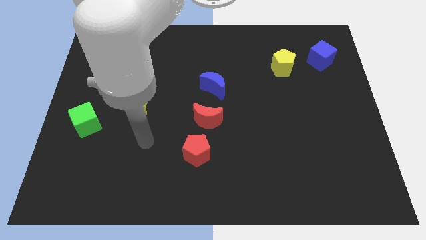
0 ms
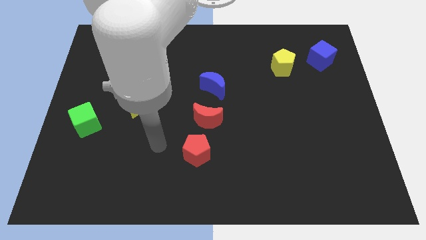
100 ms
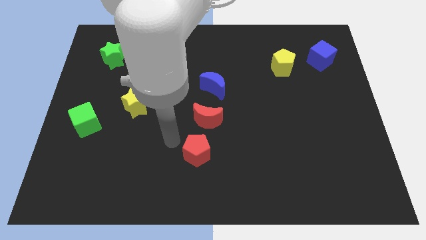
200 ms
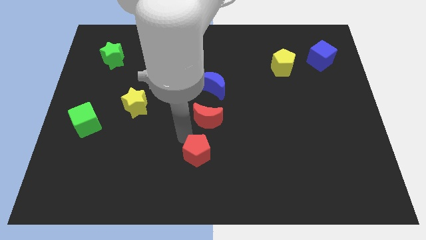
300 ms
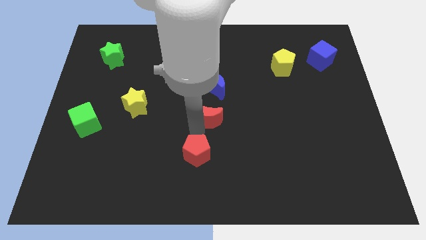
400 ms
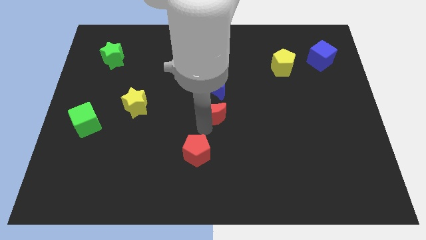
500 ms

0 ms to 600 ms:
move the red pentagon away from the red moon

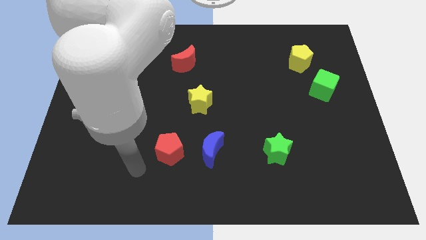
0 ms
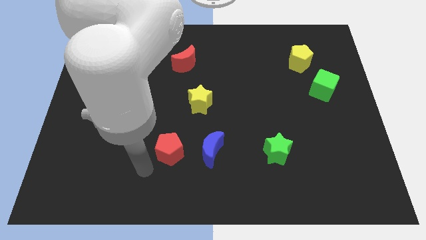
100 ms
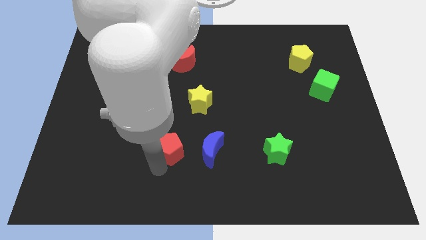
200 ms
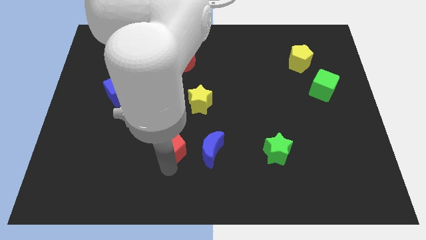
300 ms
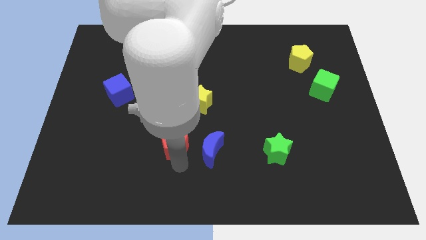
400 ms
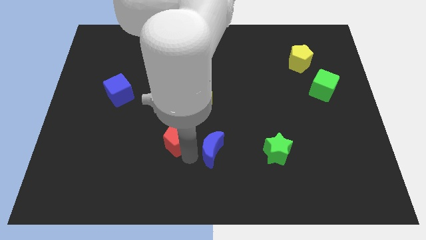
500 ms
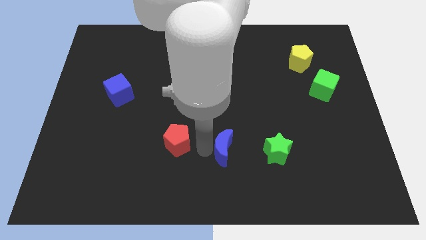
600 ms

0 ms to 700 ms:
separate the red pentagon from the blue moon

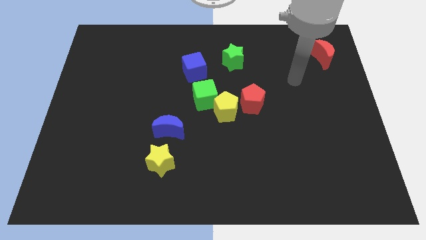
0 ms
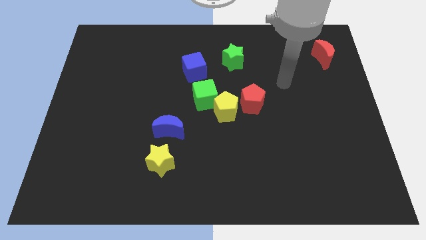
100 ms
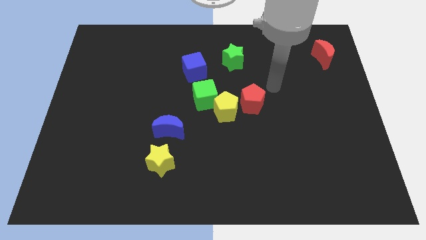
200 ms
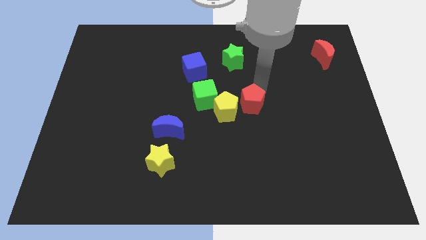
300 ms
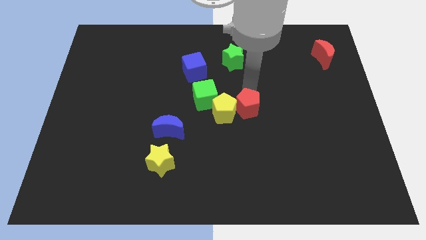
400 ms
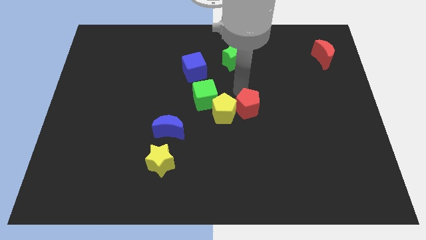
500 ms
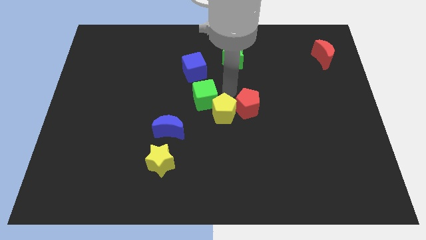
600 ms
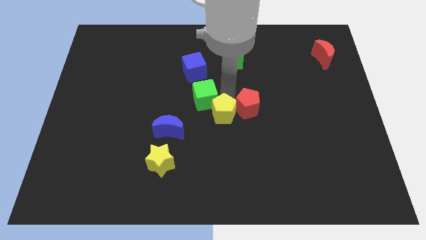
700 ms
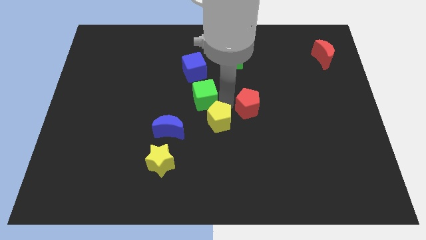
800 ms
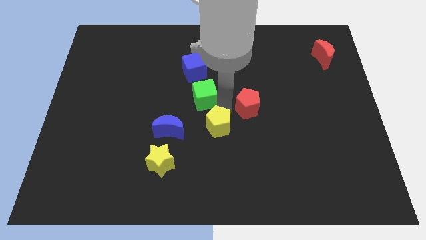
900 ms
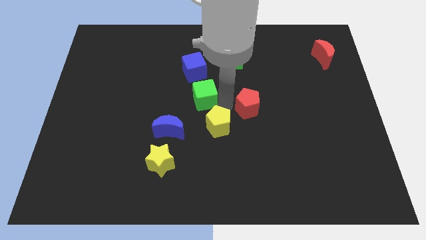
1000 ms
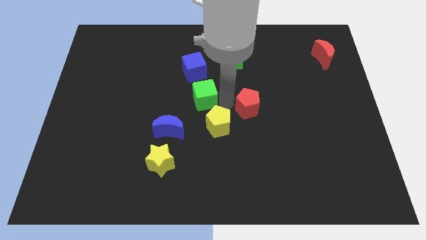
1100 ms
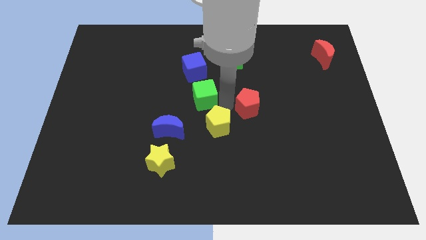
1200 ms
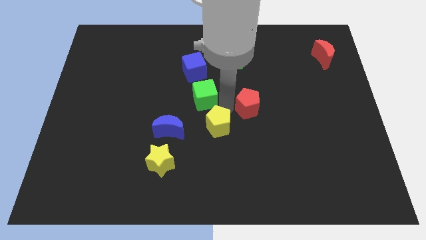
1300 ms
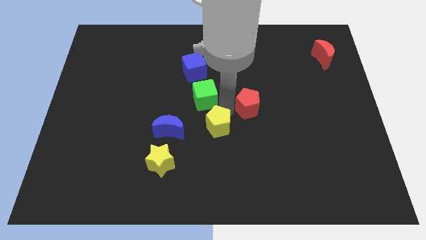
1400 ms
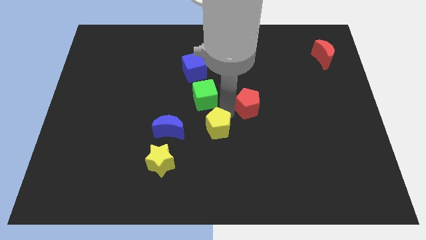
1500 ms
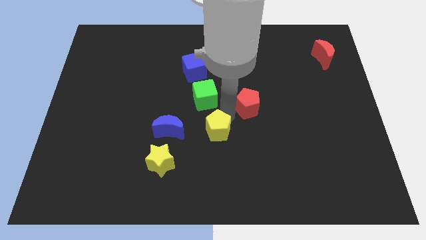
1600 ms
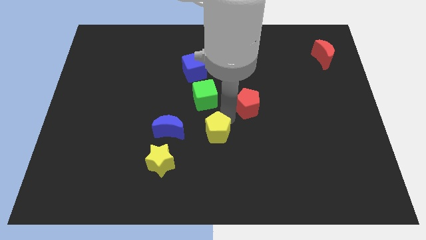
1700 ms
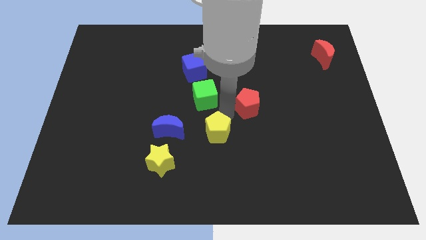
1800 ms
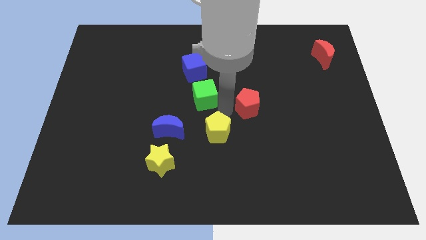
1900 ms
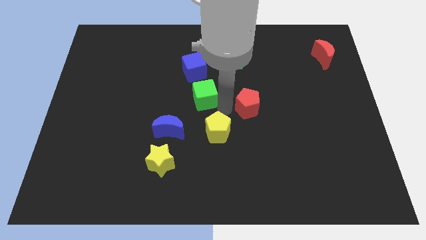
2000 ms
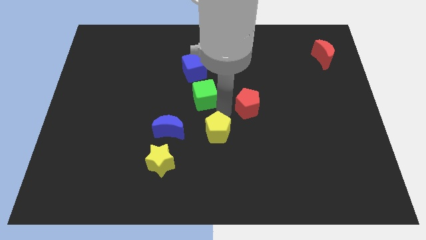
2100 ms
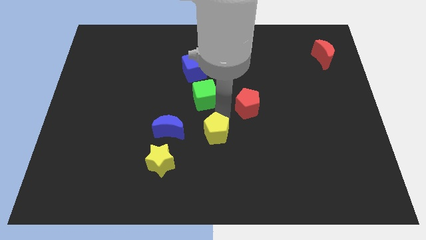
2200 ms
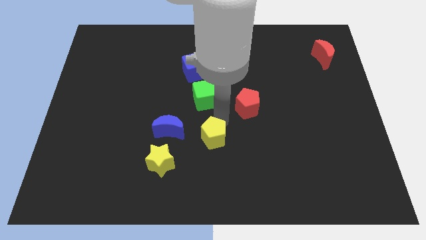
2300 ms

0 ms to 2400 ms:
pull the yellow pentagon apart from the green cube and red pentagon

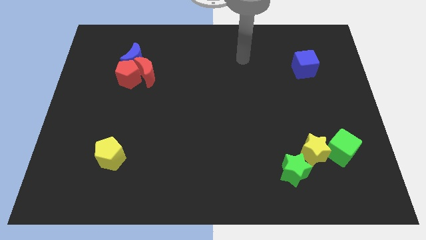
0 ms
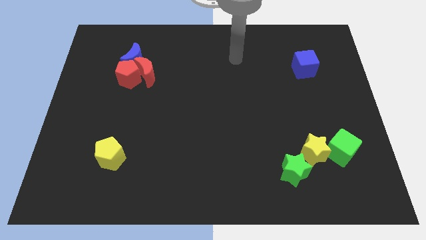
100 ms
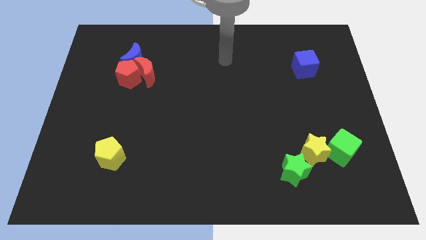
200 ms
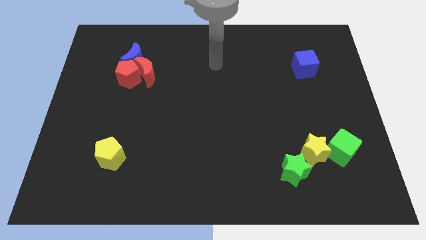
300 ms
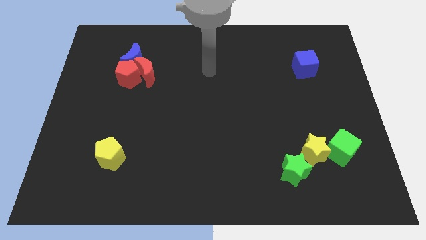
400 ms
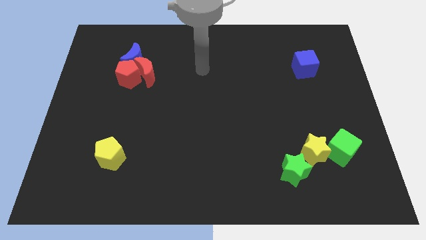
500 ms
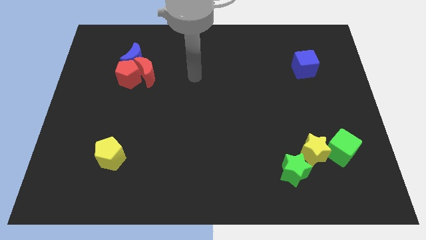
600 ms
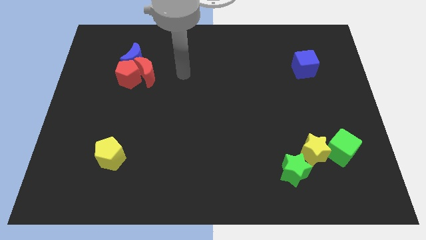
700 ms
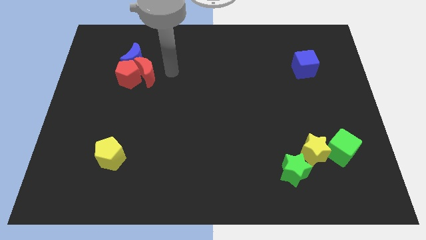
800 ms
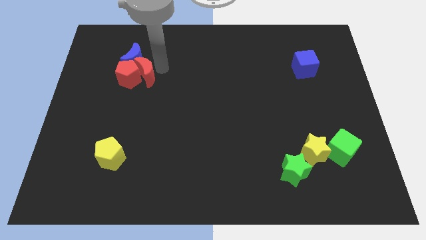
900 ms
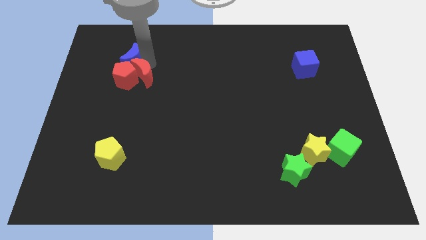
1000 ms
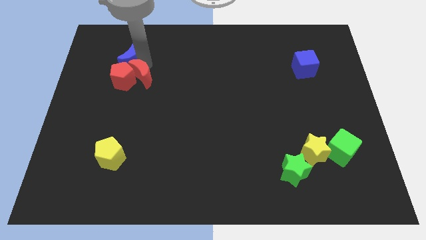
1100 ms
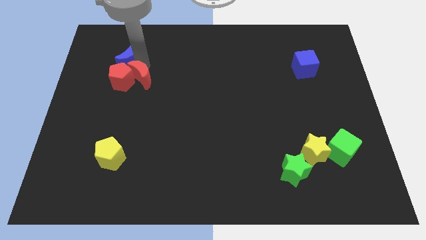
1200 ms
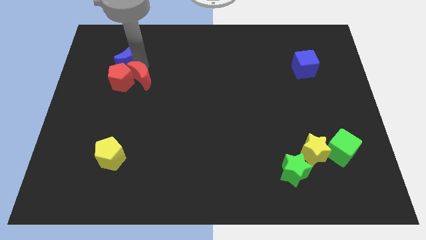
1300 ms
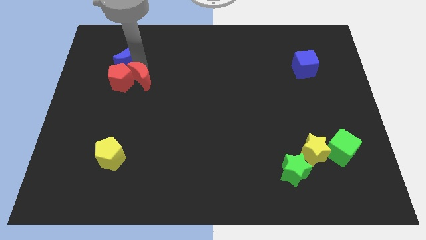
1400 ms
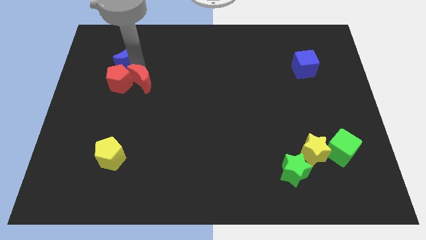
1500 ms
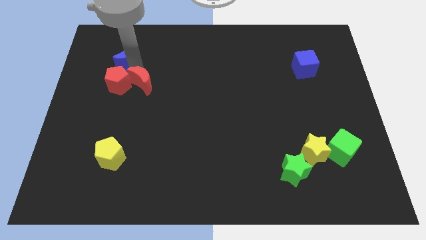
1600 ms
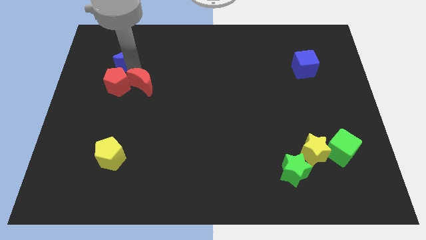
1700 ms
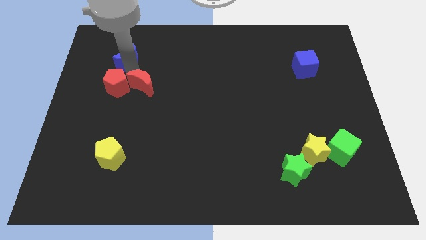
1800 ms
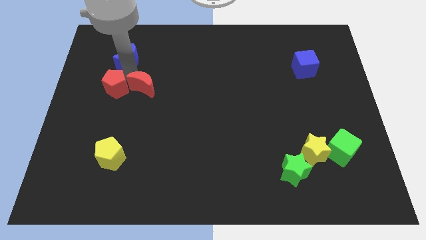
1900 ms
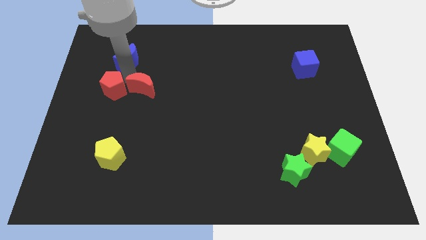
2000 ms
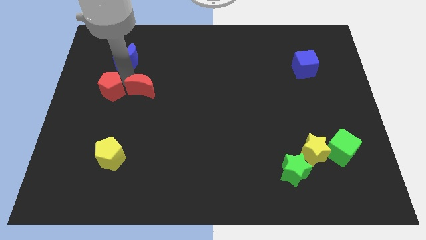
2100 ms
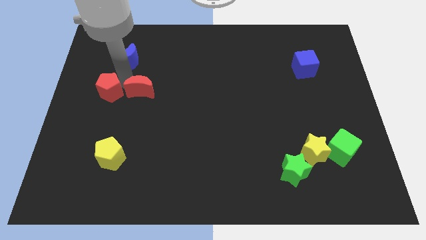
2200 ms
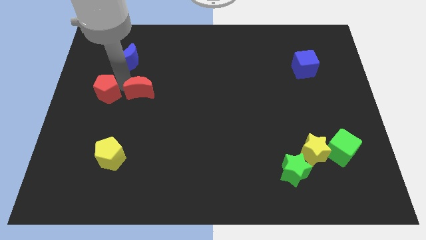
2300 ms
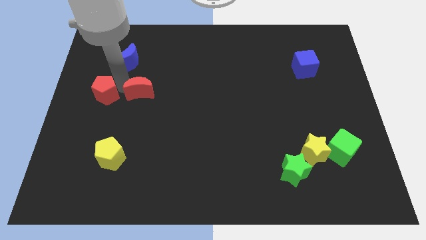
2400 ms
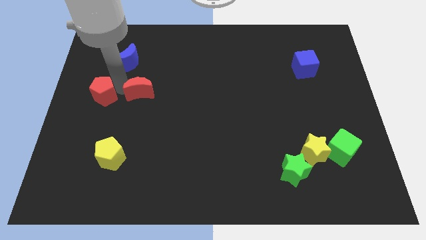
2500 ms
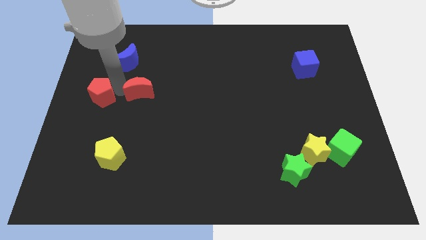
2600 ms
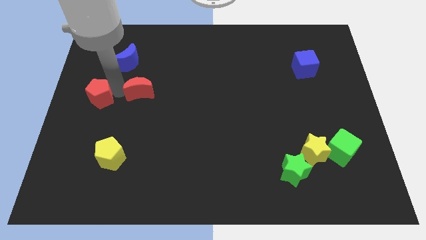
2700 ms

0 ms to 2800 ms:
pull the red pentagon apart from the red moon and blue moon

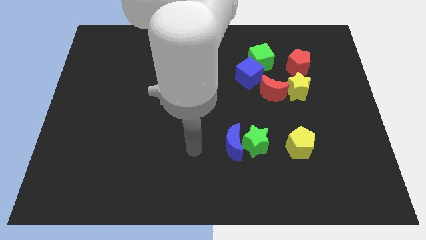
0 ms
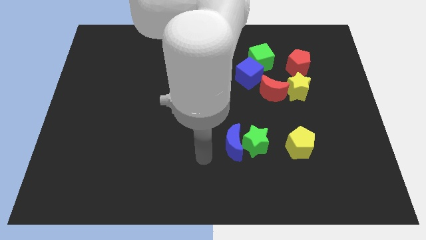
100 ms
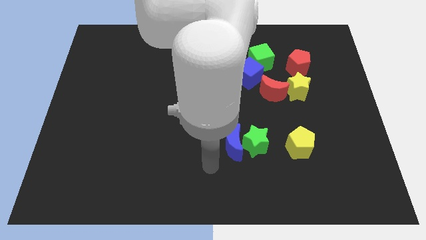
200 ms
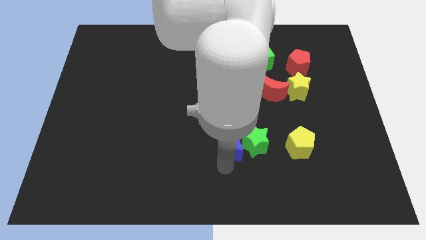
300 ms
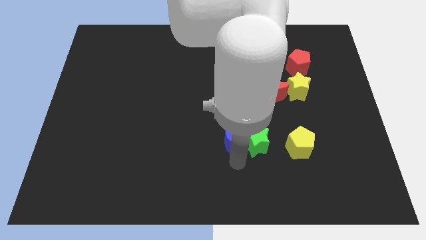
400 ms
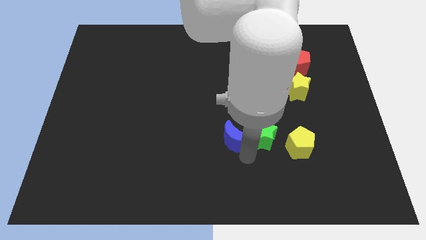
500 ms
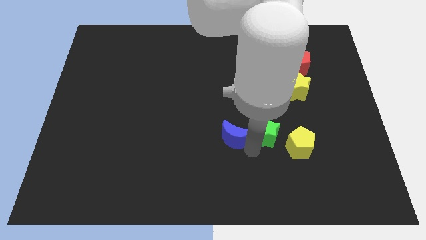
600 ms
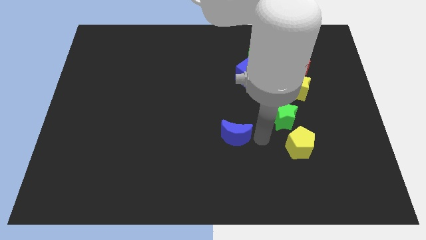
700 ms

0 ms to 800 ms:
pull the blue moon apart from the green star

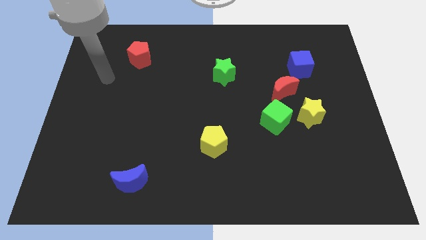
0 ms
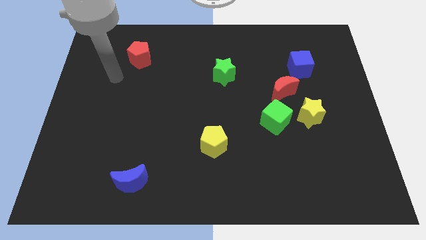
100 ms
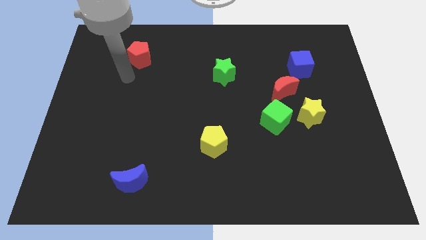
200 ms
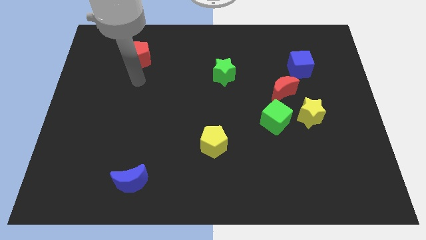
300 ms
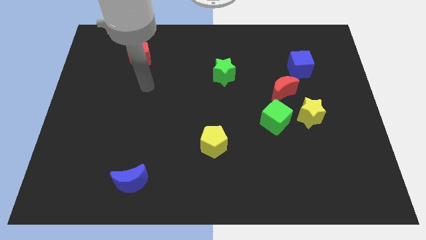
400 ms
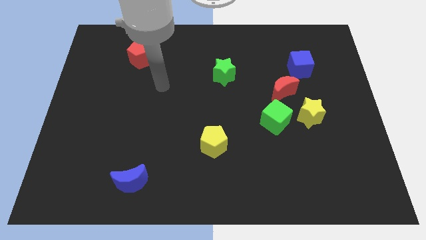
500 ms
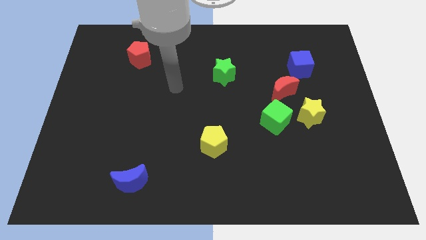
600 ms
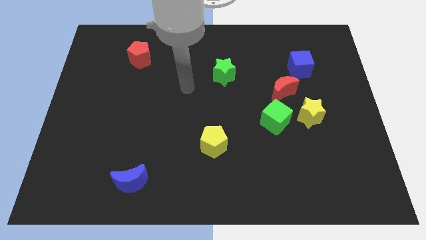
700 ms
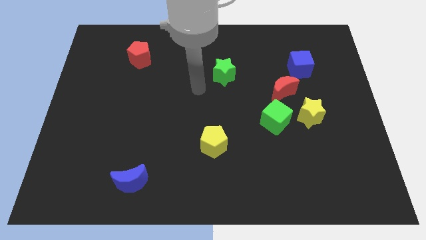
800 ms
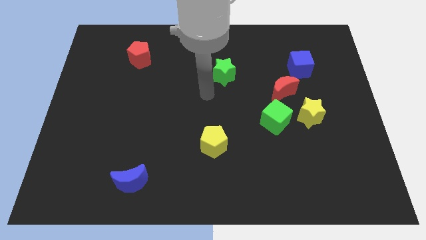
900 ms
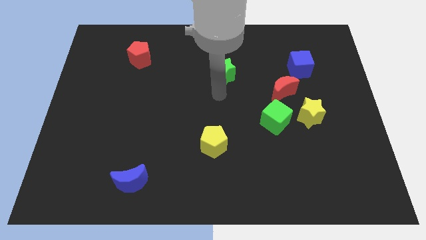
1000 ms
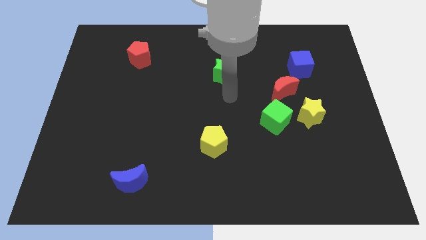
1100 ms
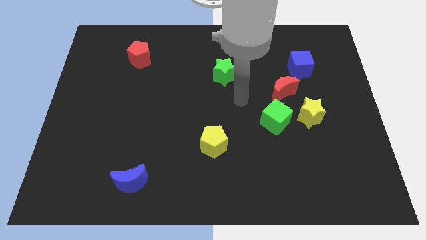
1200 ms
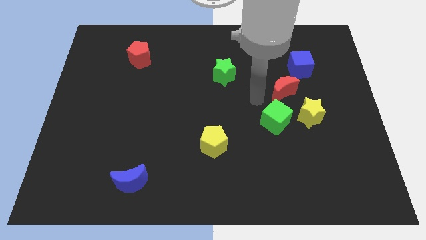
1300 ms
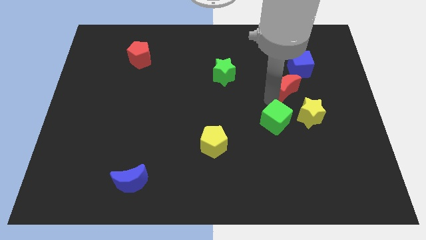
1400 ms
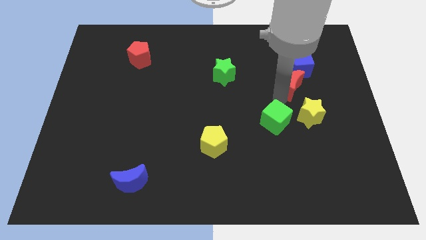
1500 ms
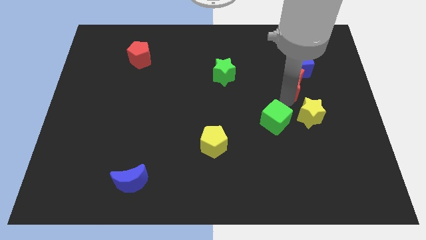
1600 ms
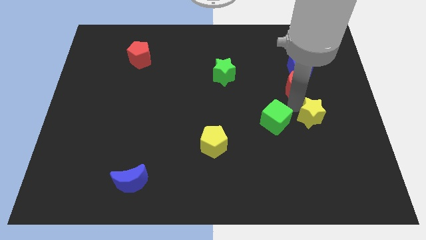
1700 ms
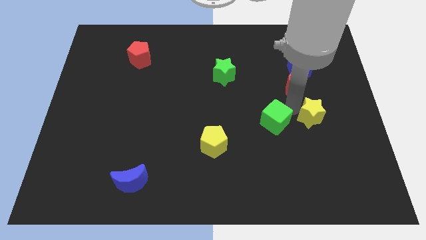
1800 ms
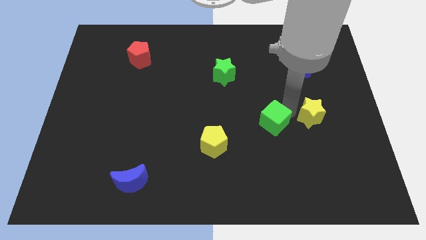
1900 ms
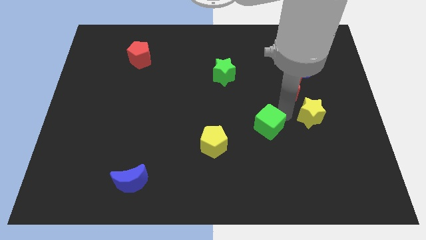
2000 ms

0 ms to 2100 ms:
pull the green cube apart from the yellow star and red moon
